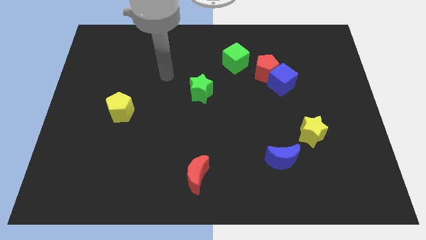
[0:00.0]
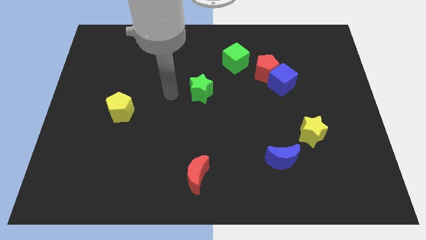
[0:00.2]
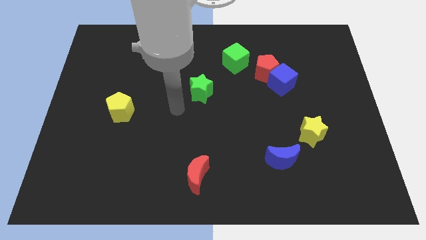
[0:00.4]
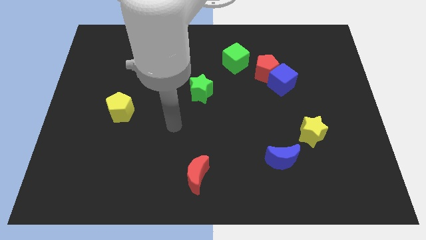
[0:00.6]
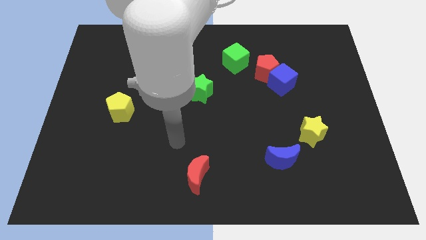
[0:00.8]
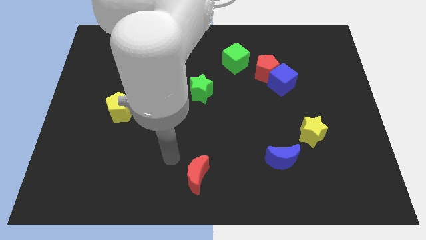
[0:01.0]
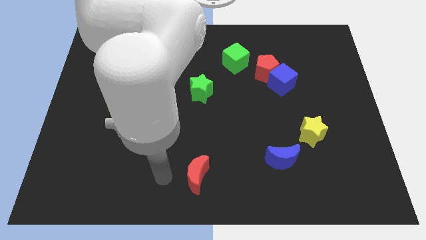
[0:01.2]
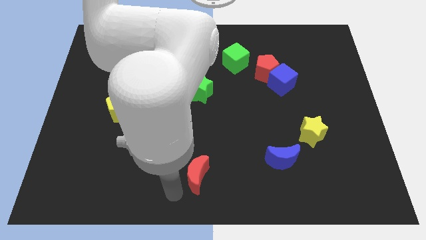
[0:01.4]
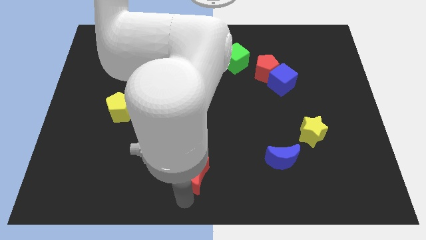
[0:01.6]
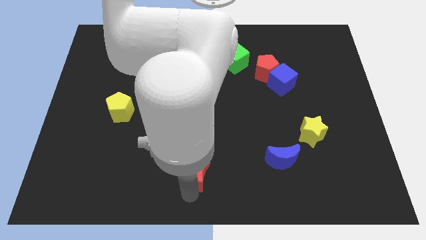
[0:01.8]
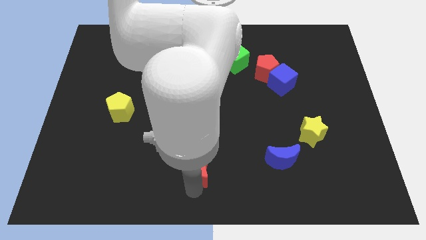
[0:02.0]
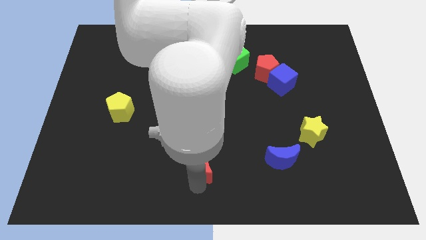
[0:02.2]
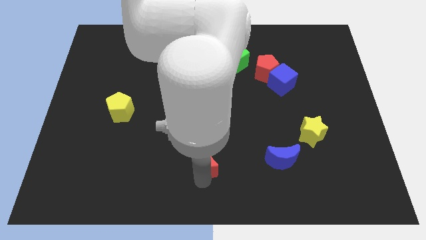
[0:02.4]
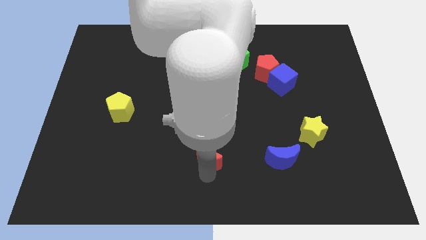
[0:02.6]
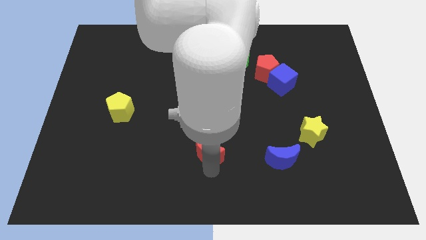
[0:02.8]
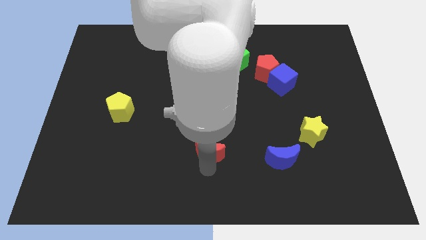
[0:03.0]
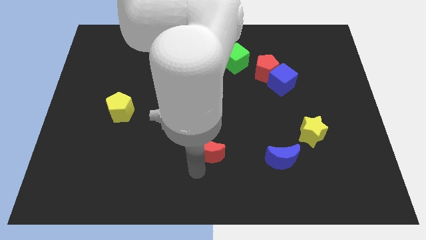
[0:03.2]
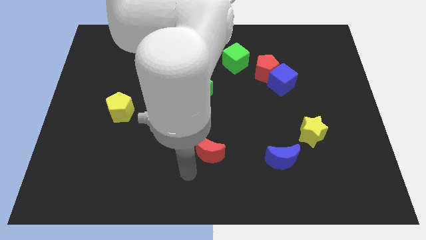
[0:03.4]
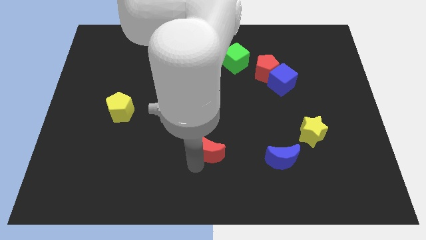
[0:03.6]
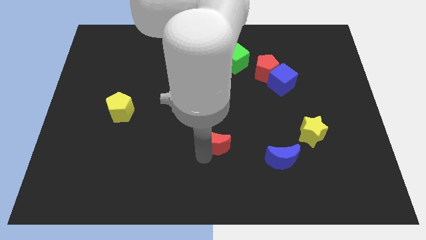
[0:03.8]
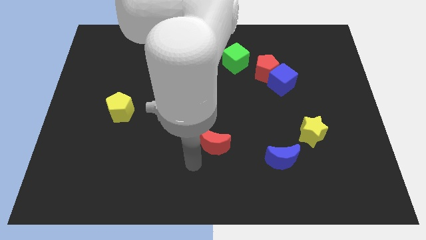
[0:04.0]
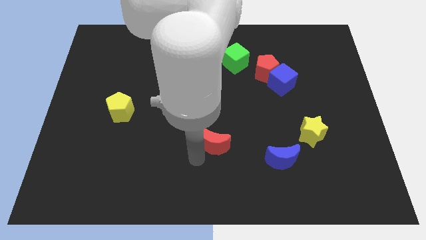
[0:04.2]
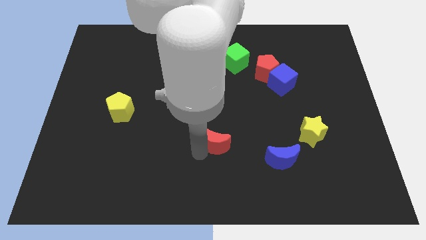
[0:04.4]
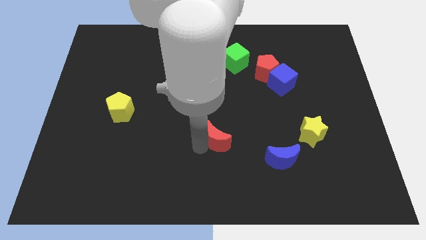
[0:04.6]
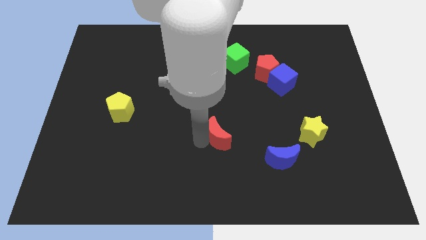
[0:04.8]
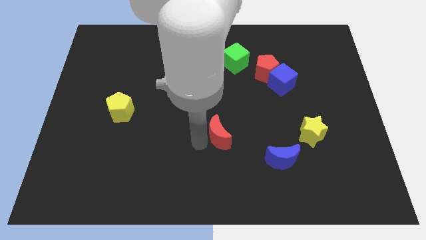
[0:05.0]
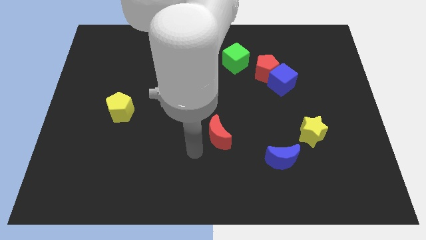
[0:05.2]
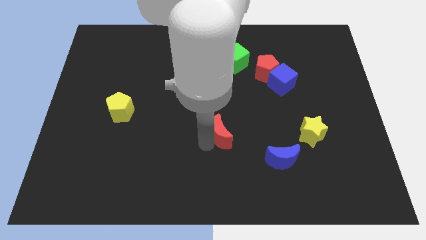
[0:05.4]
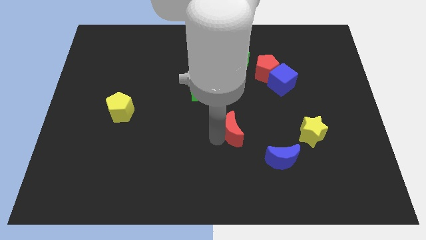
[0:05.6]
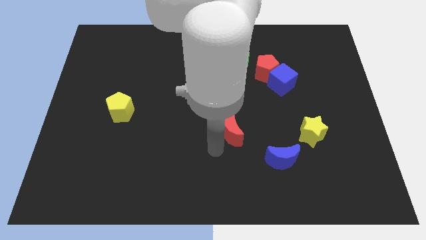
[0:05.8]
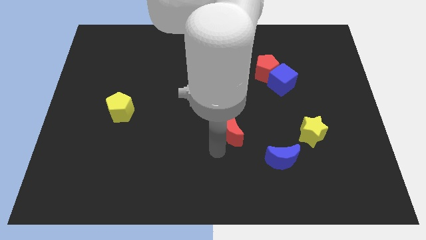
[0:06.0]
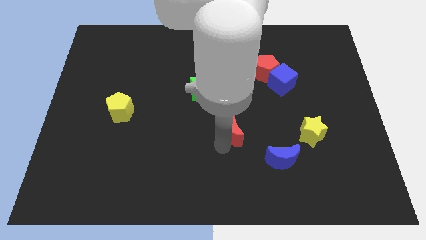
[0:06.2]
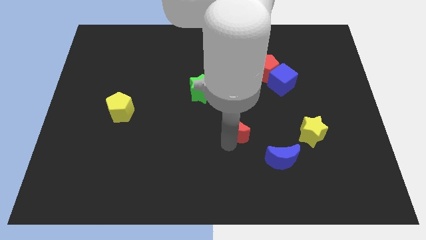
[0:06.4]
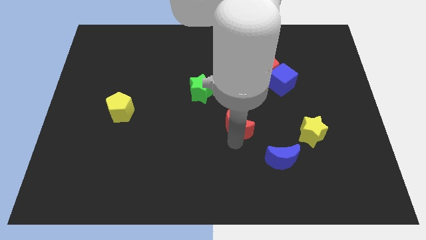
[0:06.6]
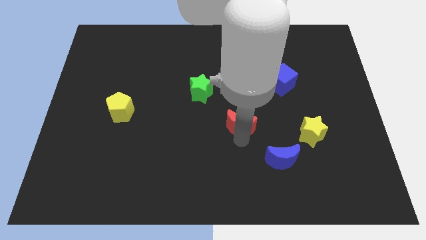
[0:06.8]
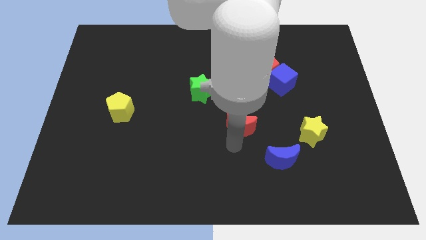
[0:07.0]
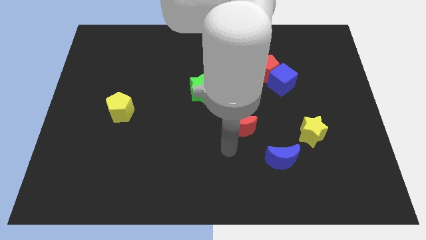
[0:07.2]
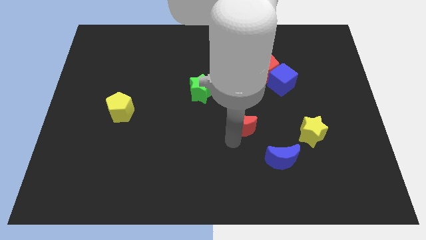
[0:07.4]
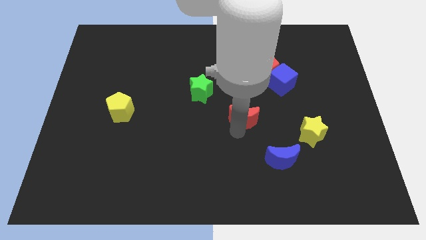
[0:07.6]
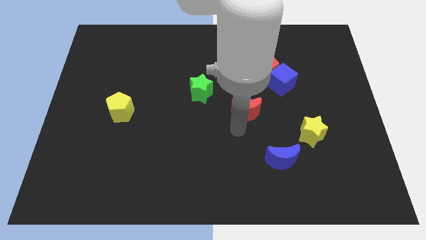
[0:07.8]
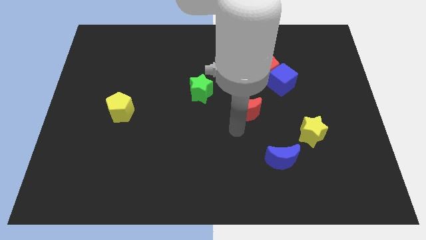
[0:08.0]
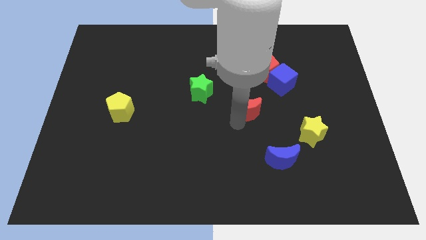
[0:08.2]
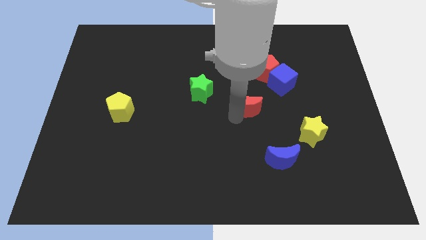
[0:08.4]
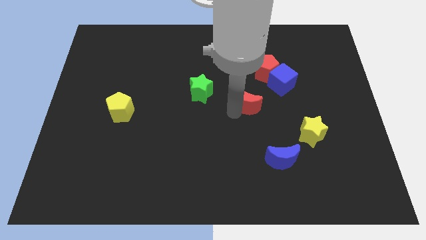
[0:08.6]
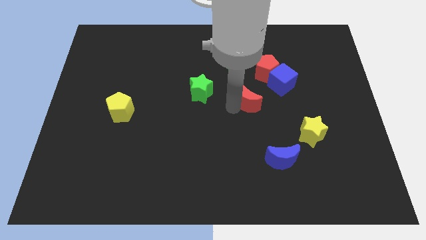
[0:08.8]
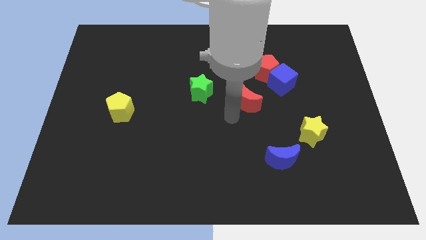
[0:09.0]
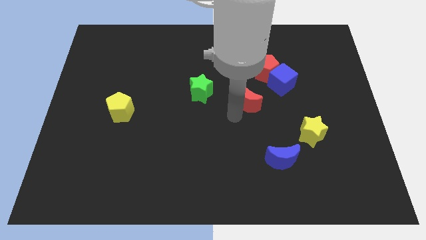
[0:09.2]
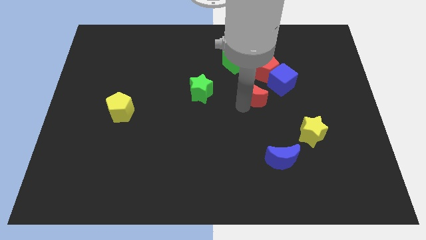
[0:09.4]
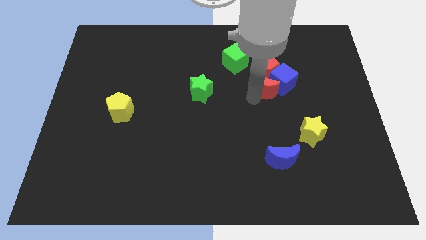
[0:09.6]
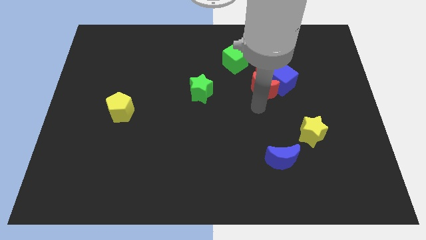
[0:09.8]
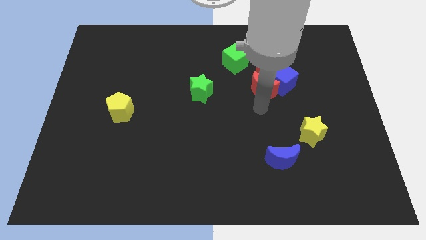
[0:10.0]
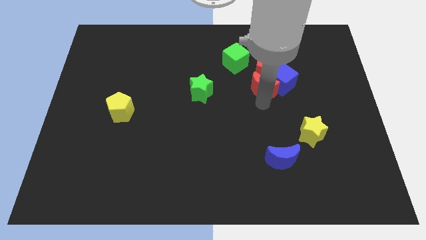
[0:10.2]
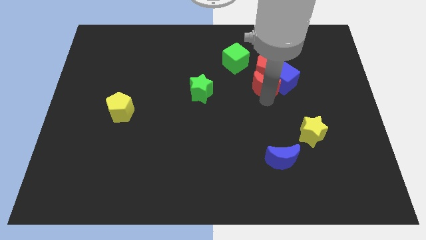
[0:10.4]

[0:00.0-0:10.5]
push the red moon towards the red pentagon

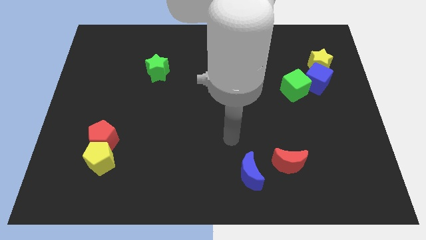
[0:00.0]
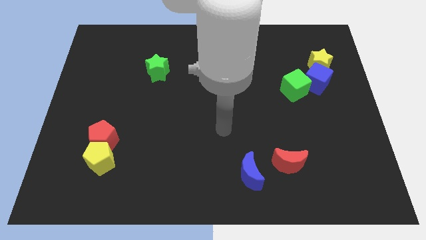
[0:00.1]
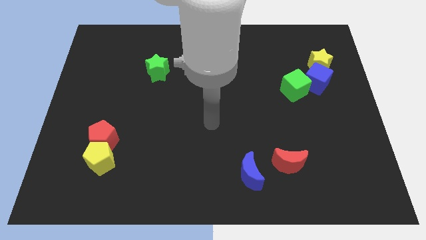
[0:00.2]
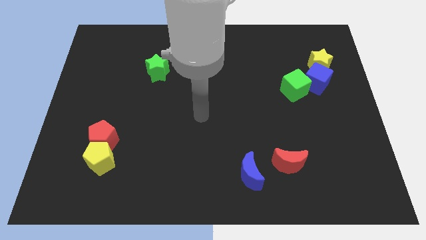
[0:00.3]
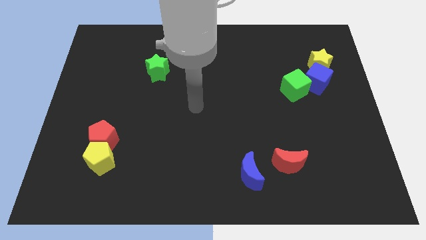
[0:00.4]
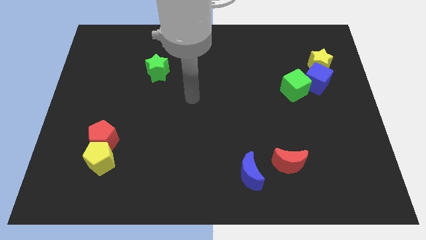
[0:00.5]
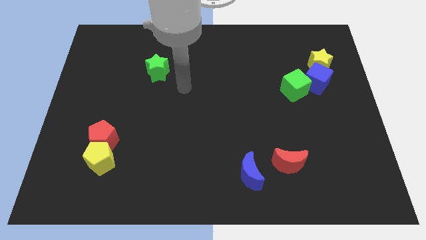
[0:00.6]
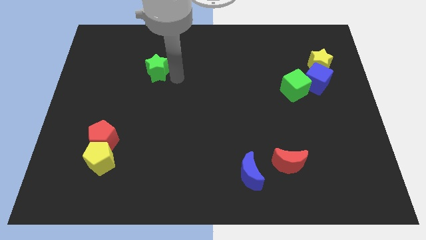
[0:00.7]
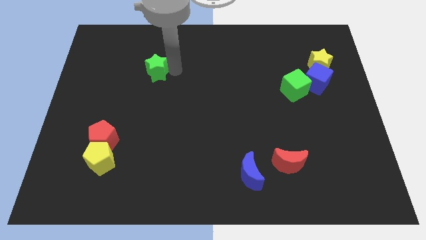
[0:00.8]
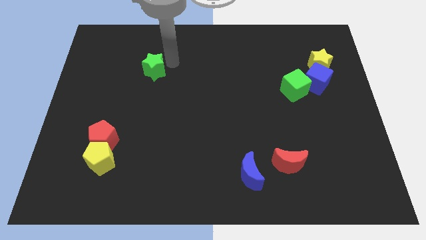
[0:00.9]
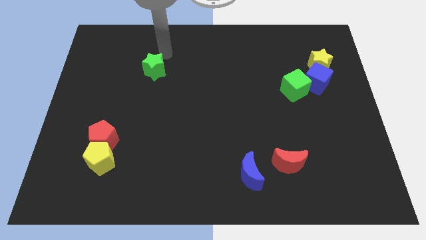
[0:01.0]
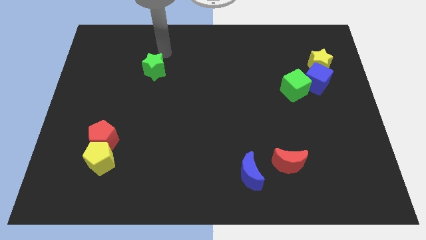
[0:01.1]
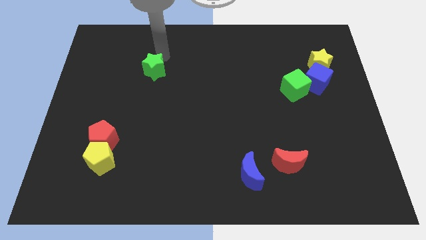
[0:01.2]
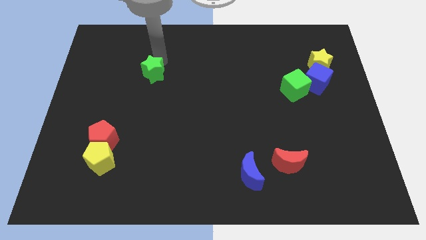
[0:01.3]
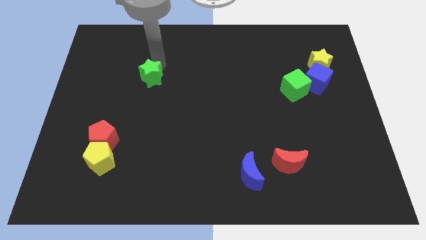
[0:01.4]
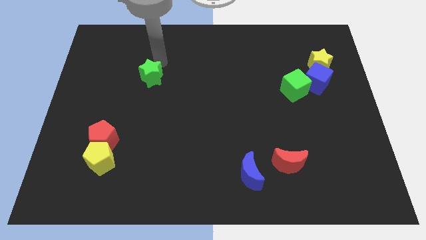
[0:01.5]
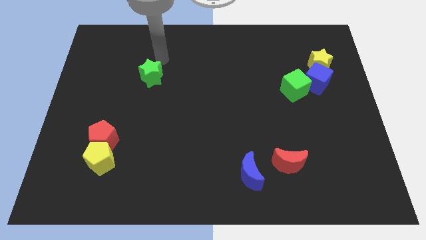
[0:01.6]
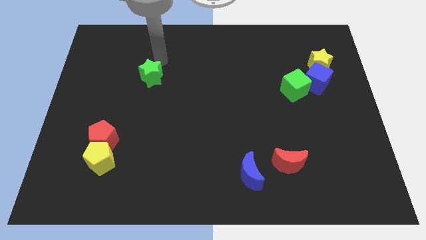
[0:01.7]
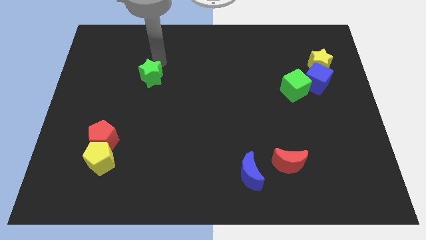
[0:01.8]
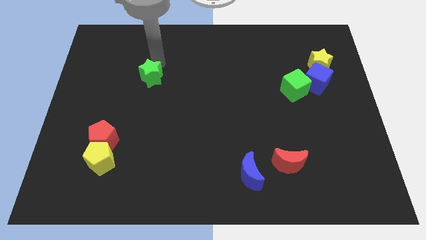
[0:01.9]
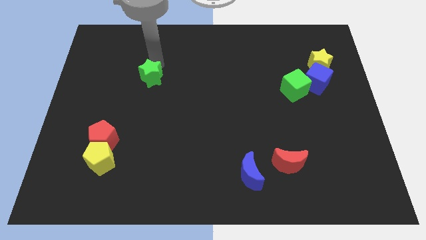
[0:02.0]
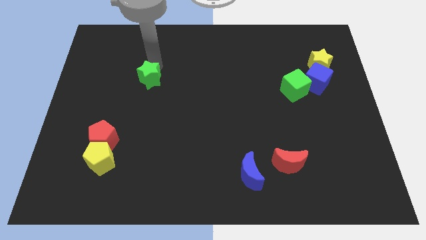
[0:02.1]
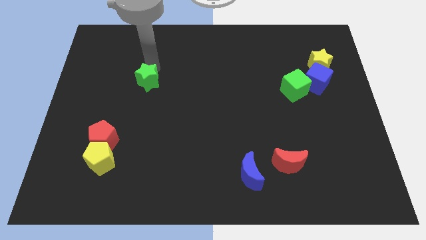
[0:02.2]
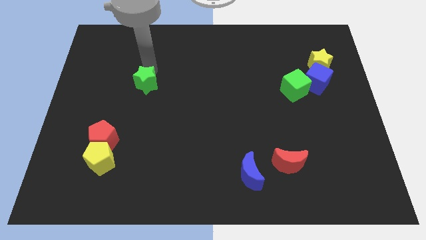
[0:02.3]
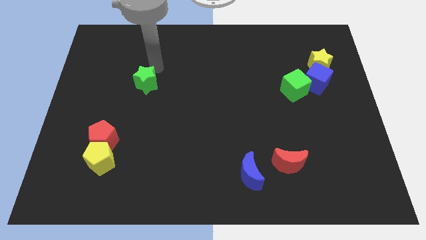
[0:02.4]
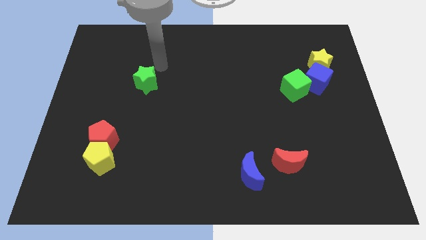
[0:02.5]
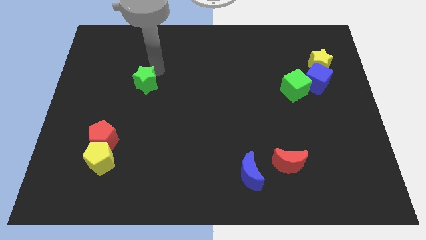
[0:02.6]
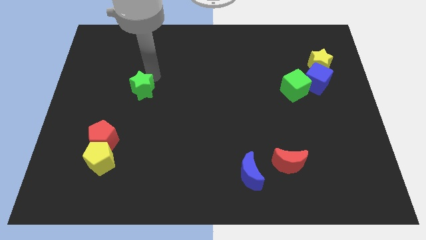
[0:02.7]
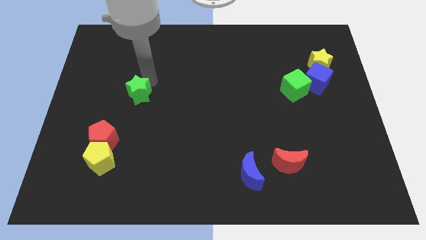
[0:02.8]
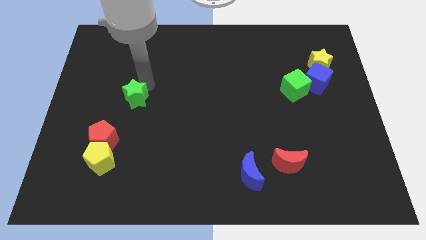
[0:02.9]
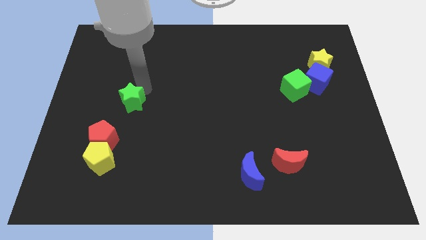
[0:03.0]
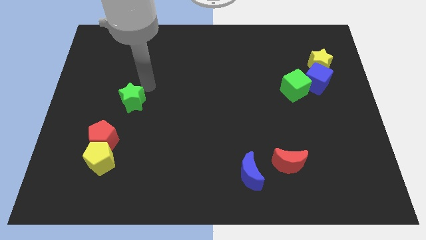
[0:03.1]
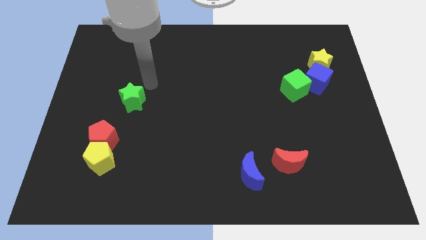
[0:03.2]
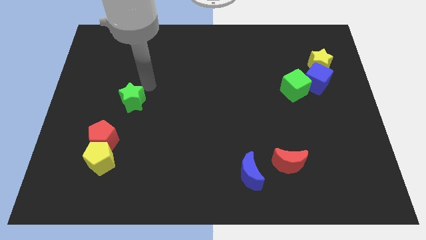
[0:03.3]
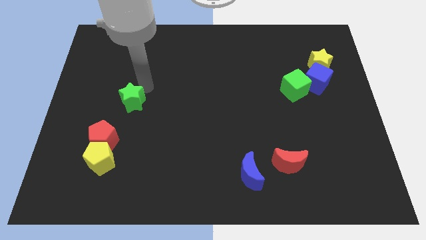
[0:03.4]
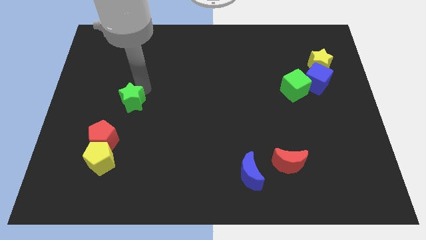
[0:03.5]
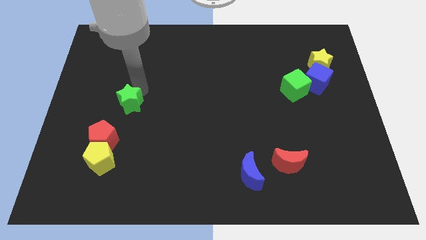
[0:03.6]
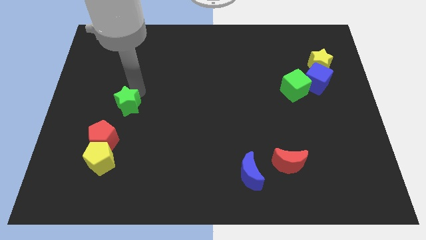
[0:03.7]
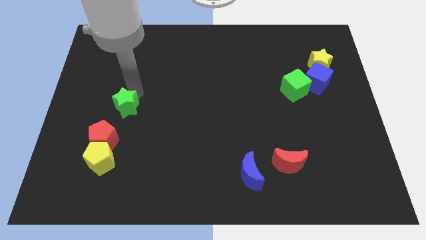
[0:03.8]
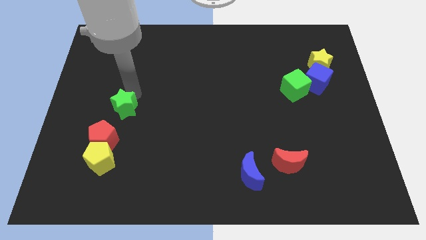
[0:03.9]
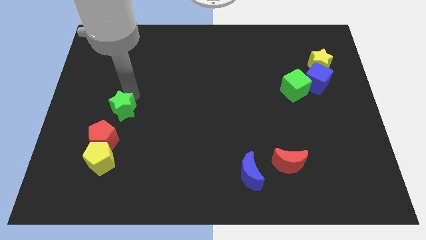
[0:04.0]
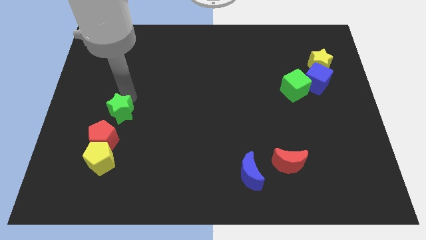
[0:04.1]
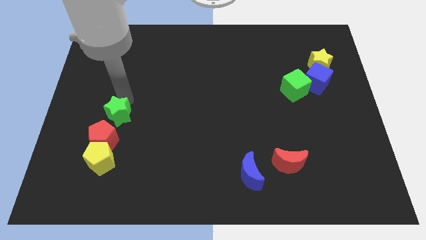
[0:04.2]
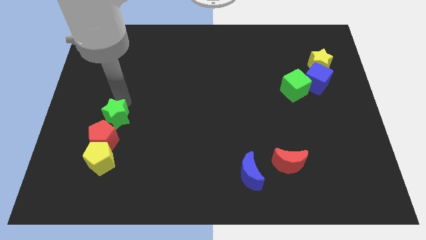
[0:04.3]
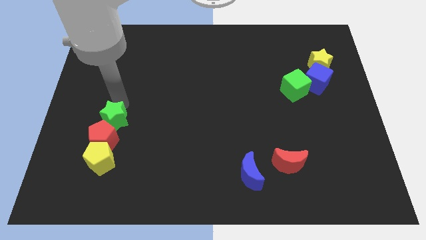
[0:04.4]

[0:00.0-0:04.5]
slide the green star towards the red pentagon
